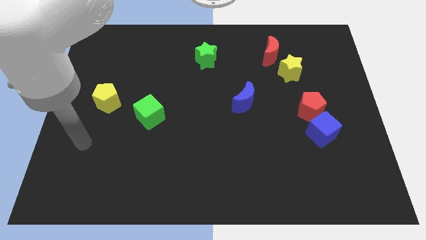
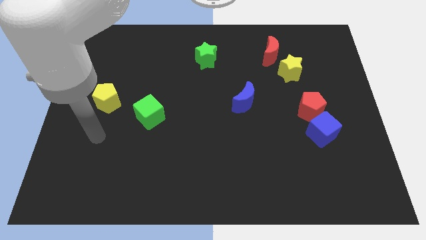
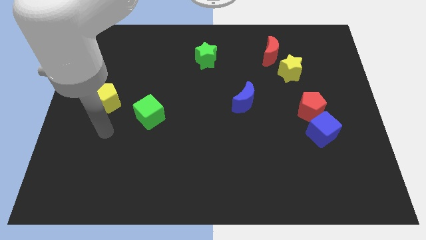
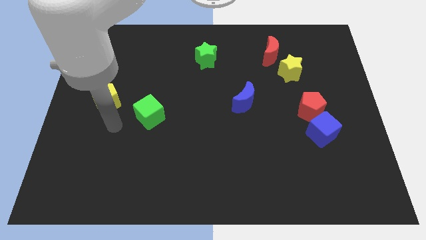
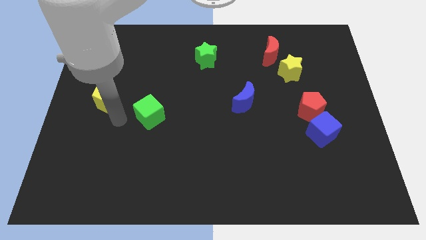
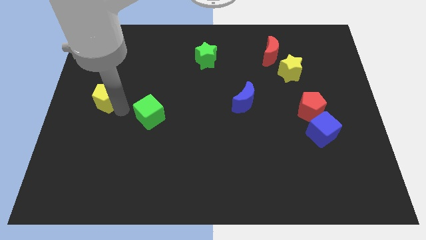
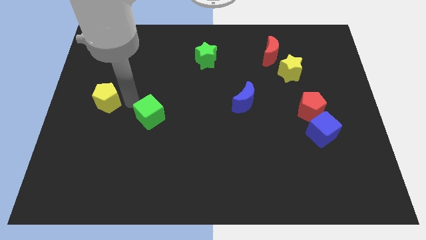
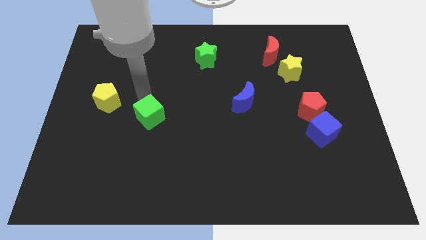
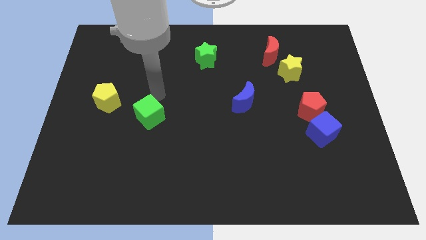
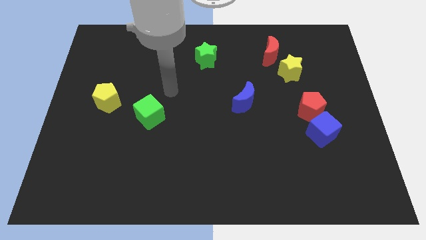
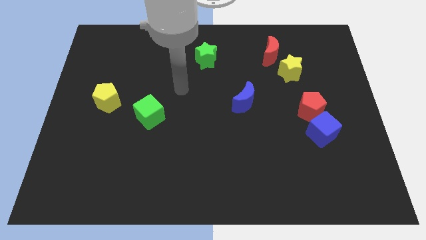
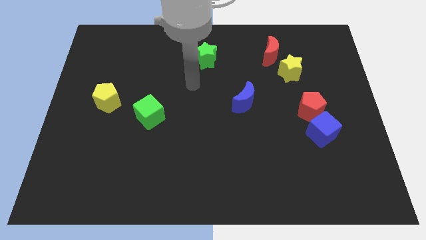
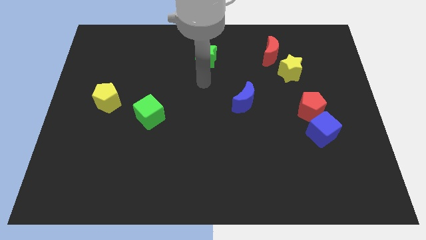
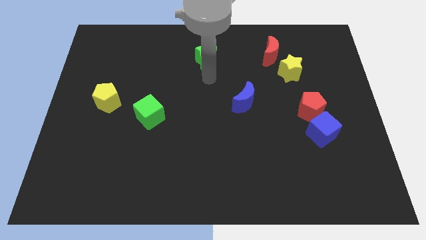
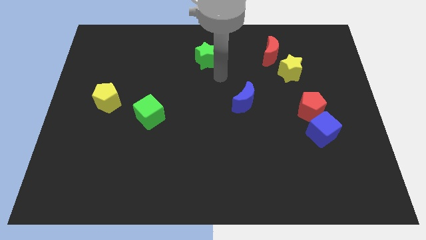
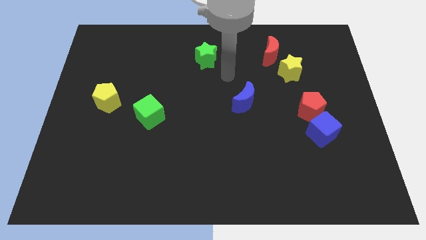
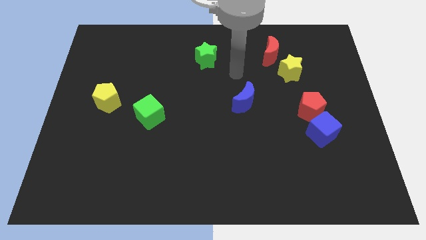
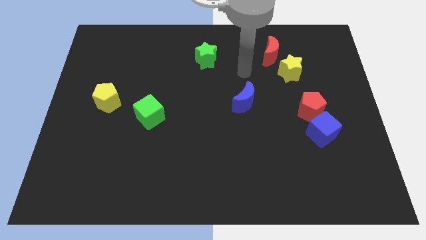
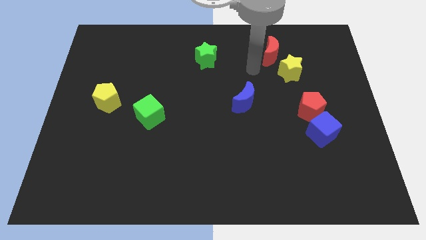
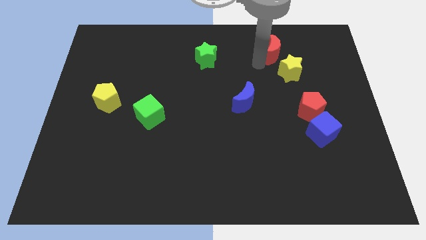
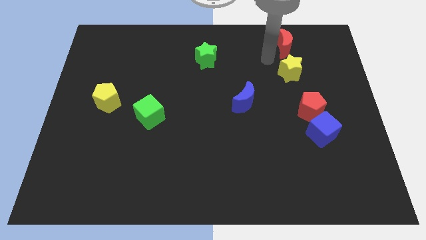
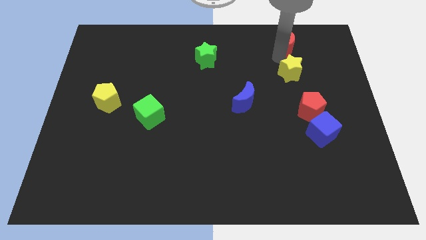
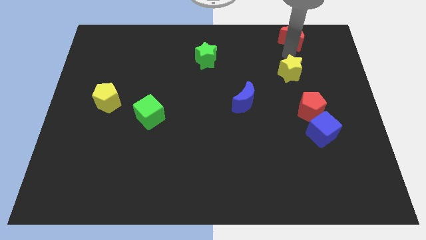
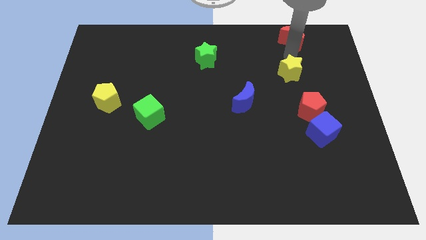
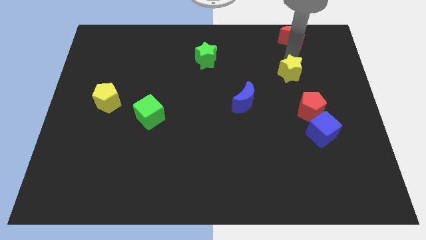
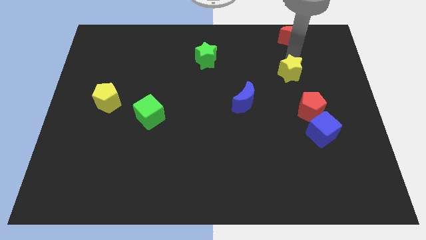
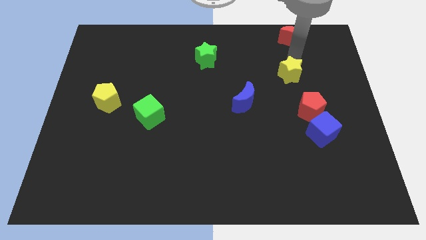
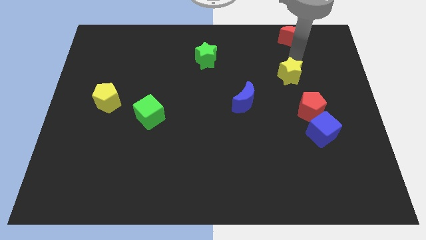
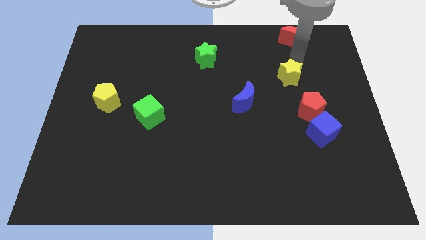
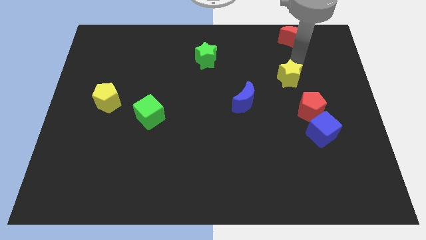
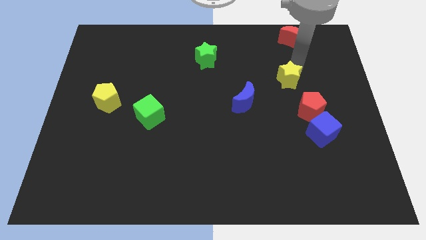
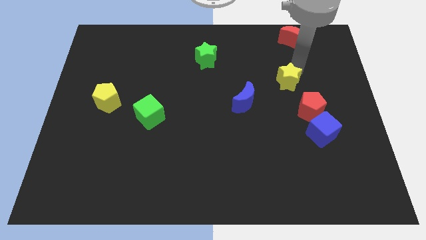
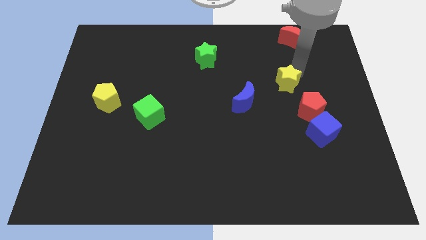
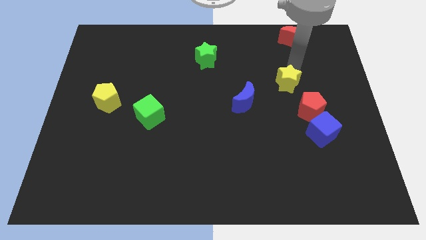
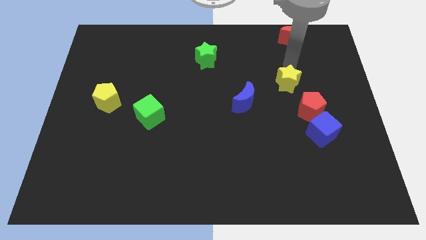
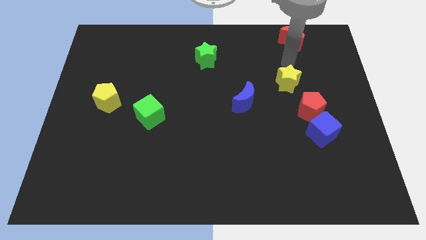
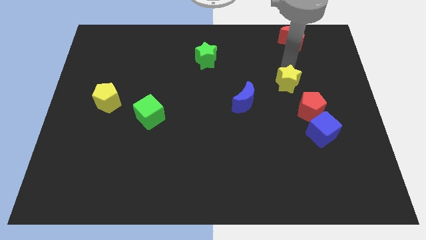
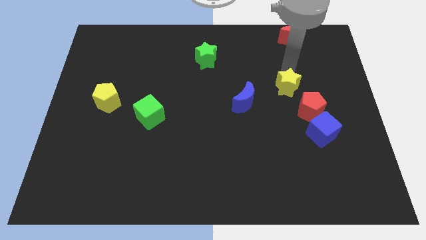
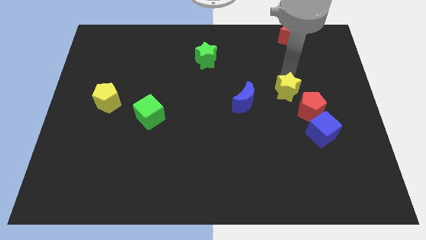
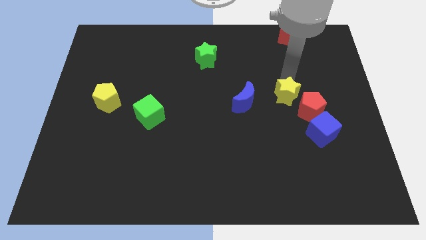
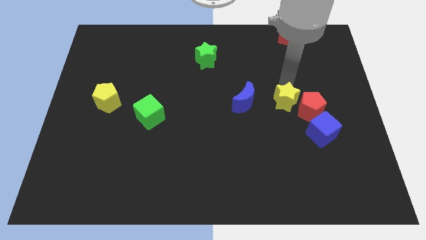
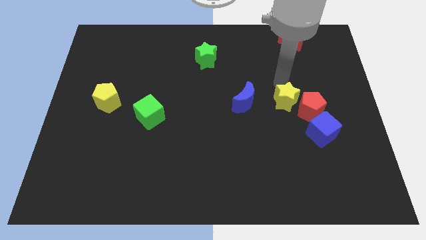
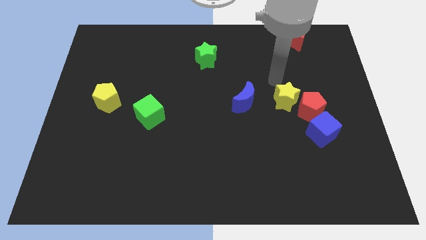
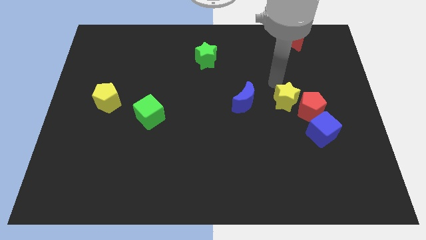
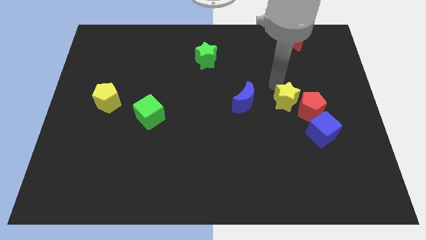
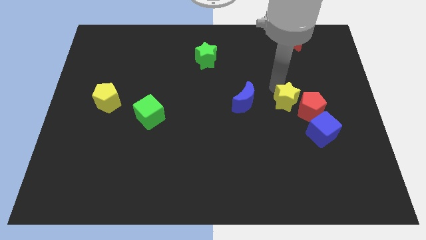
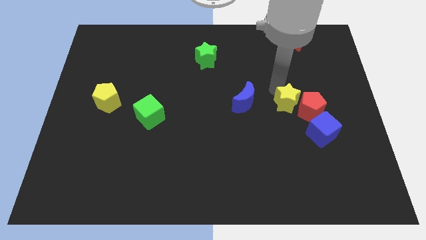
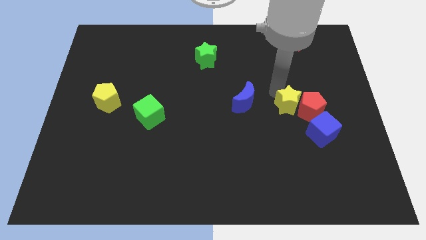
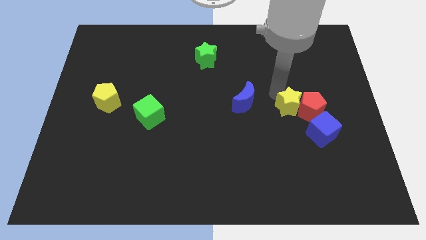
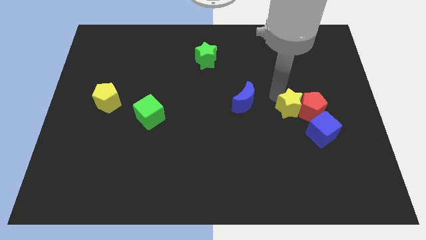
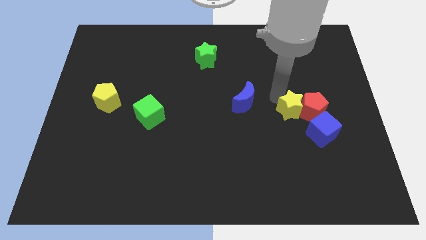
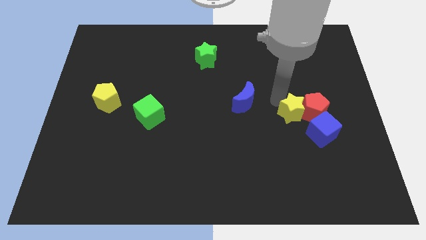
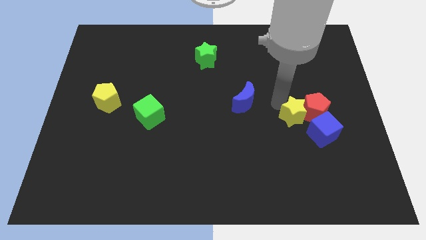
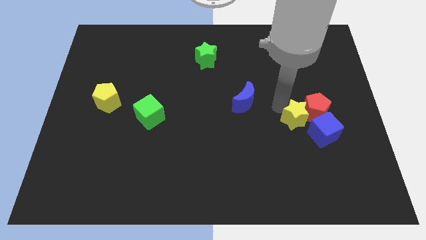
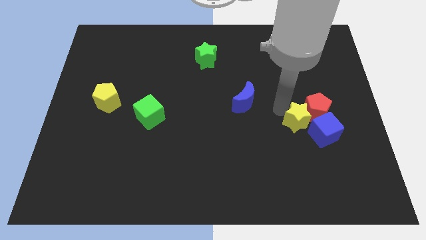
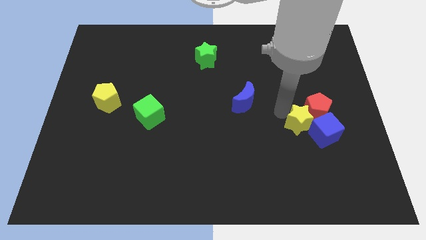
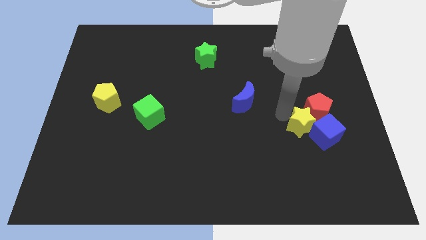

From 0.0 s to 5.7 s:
slide the yellow star to the blue cube

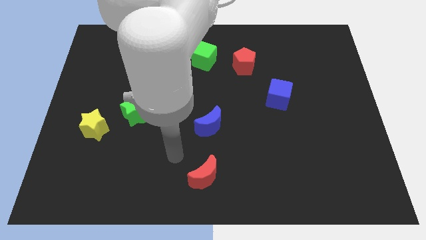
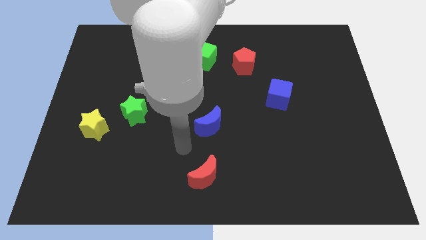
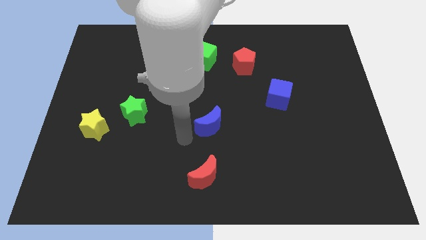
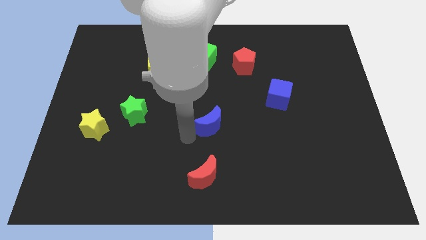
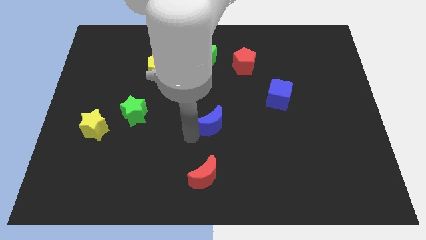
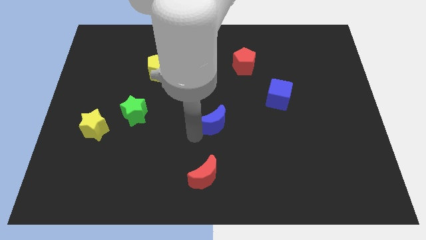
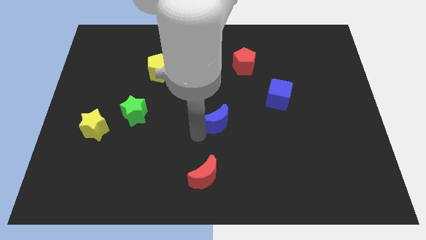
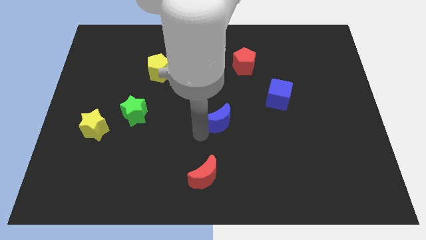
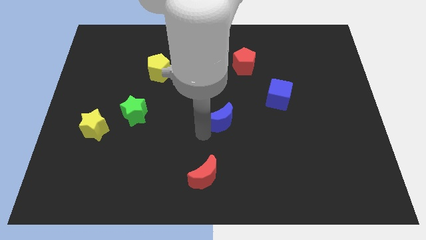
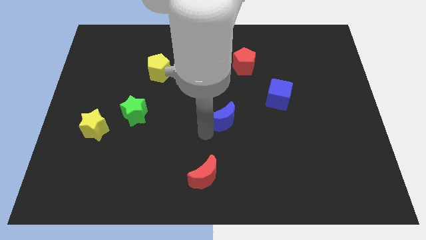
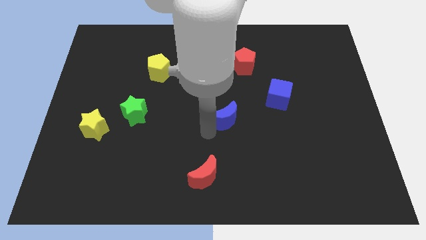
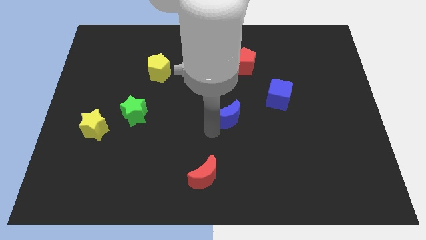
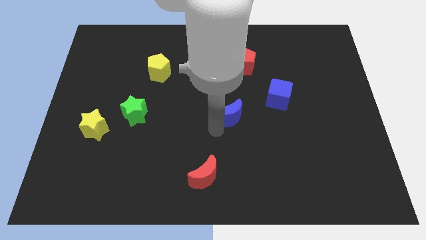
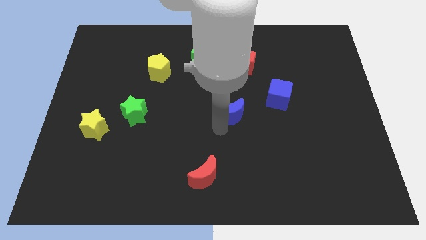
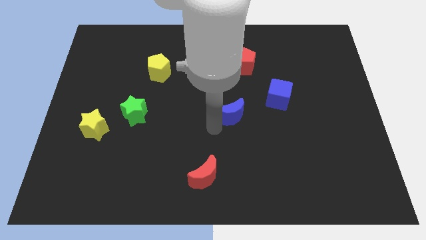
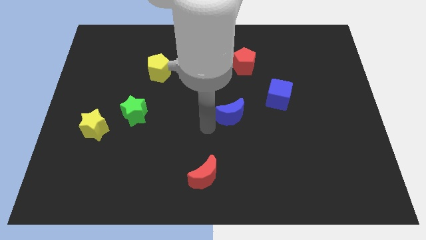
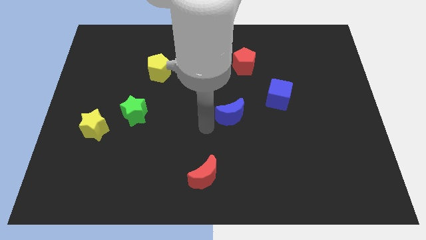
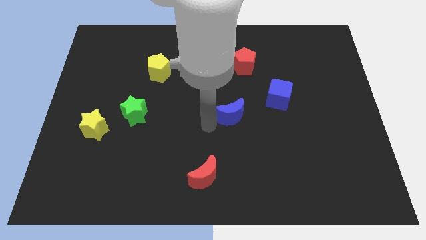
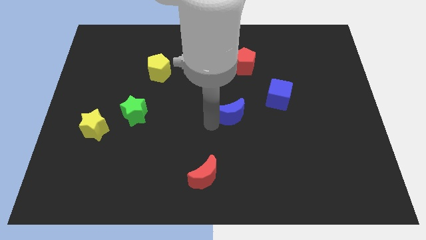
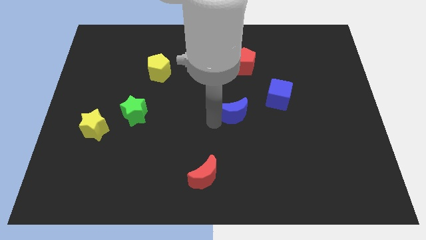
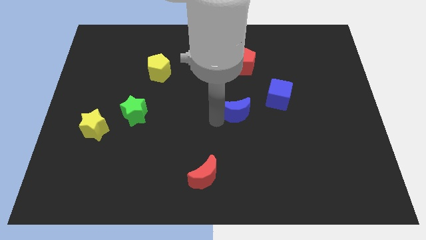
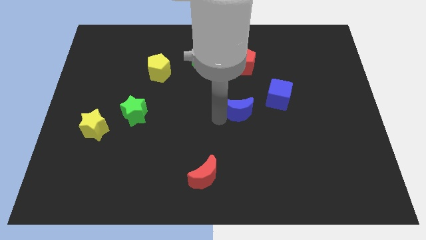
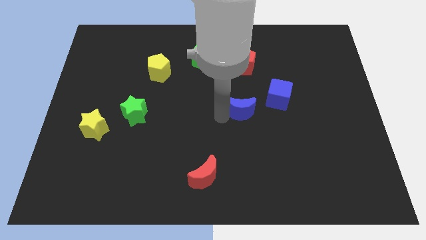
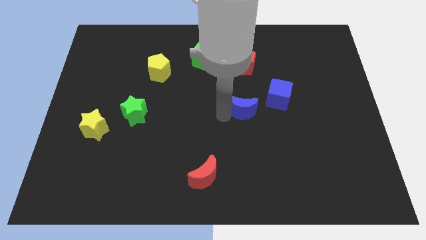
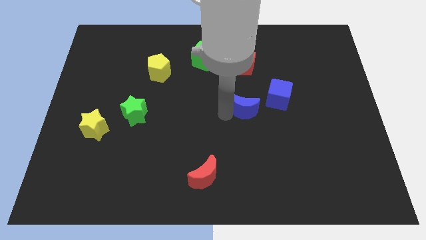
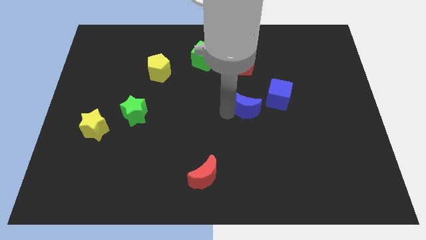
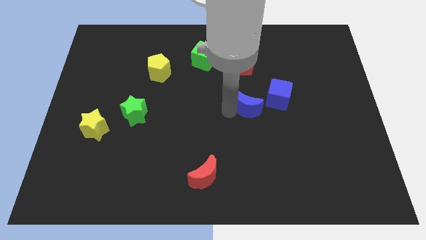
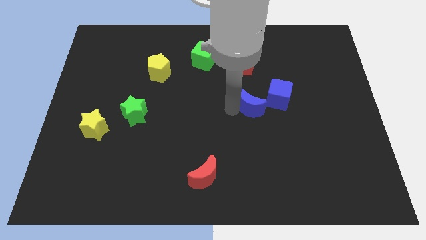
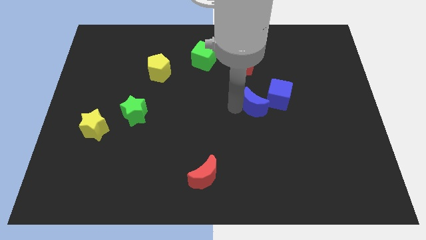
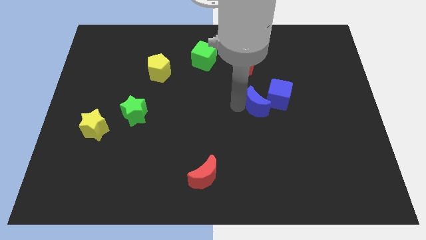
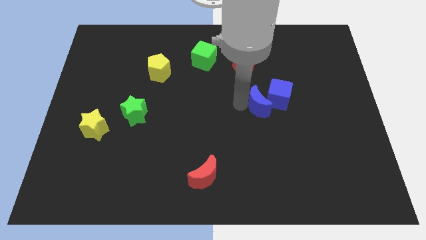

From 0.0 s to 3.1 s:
push the blue moon close to the blue cube
